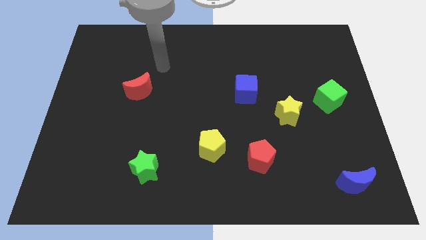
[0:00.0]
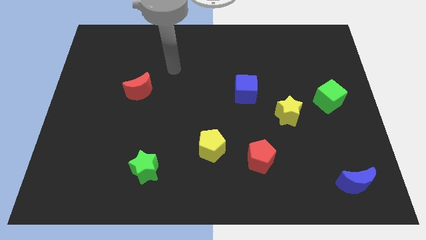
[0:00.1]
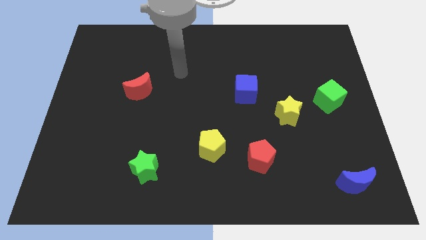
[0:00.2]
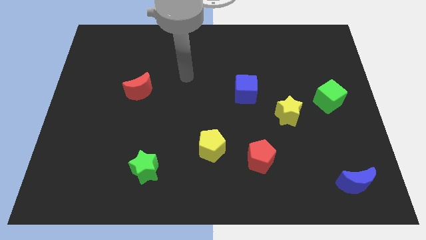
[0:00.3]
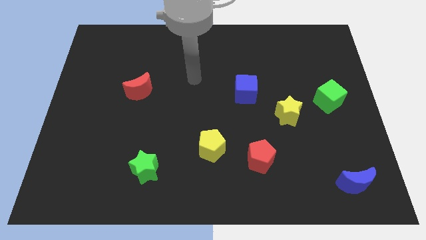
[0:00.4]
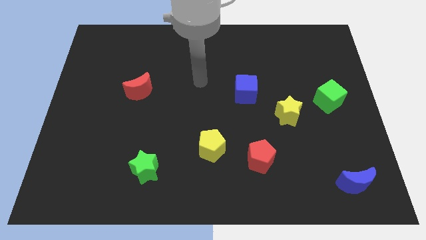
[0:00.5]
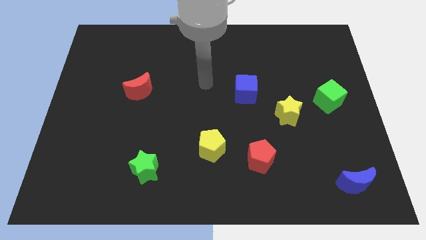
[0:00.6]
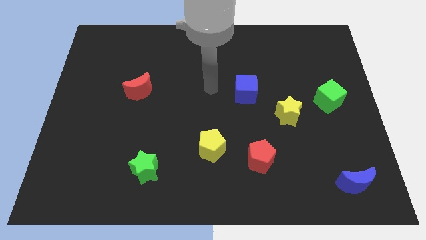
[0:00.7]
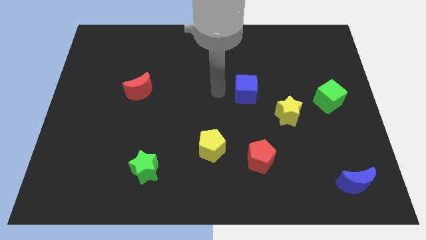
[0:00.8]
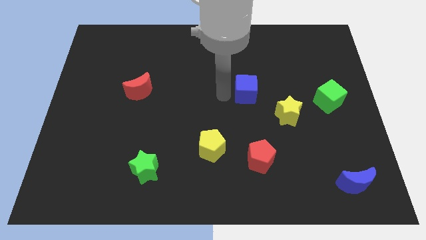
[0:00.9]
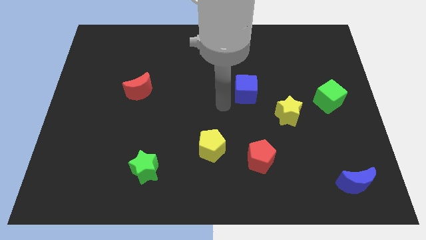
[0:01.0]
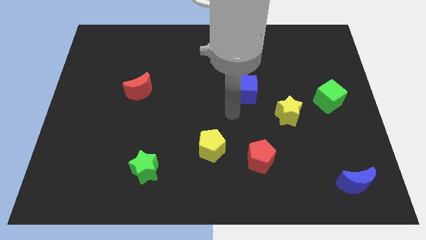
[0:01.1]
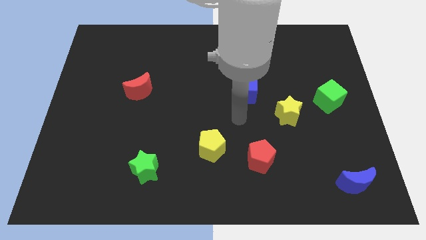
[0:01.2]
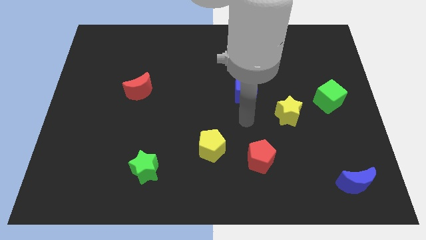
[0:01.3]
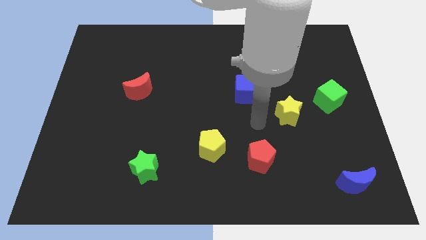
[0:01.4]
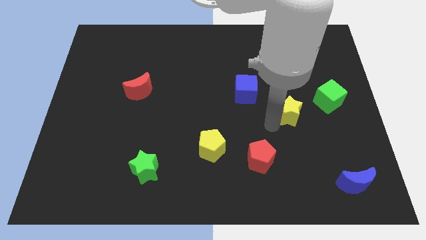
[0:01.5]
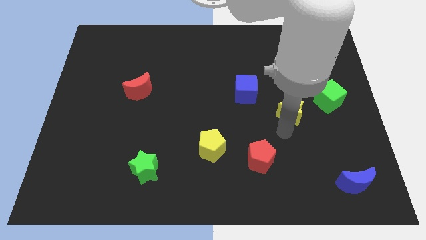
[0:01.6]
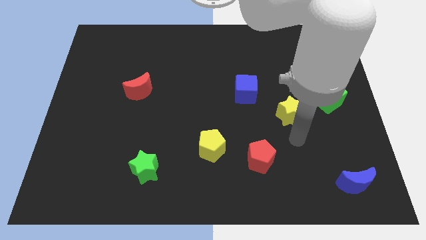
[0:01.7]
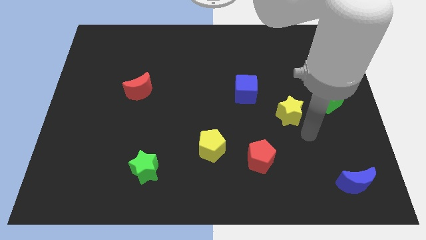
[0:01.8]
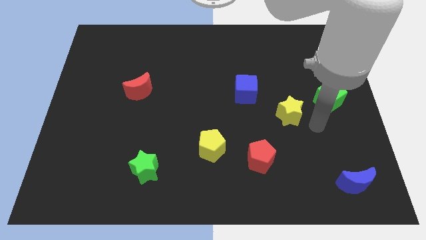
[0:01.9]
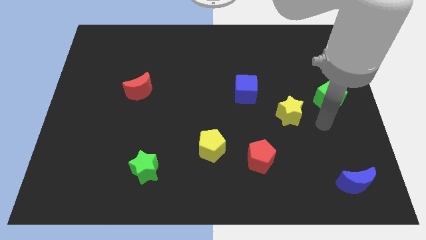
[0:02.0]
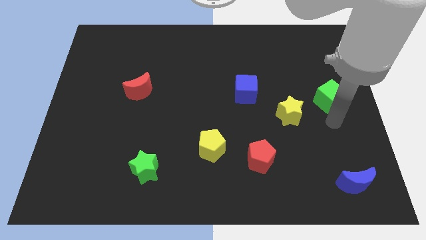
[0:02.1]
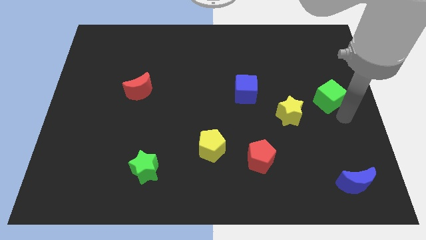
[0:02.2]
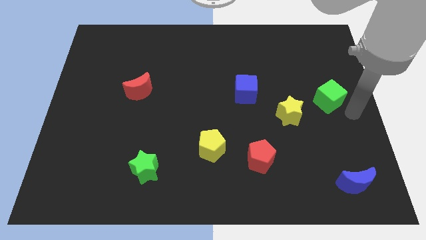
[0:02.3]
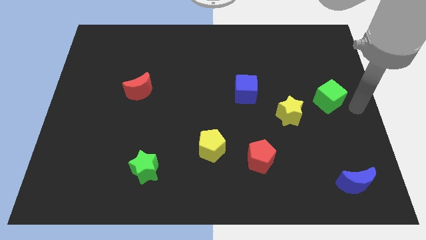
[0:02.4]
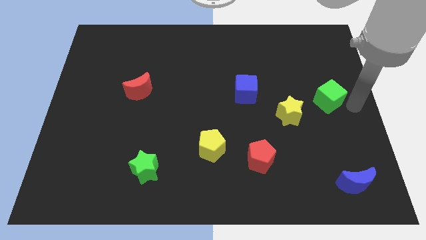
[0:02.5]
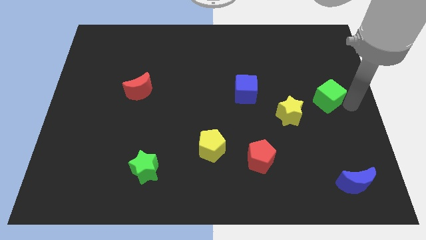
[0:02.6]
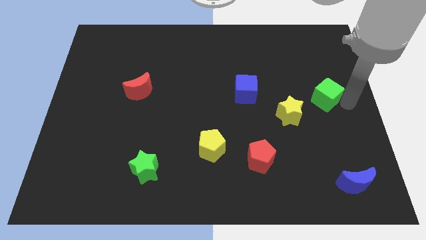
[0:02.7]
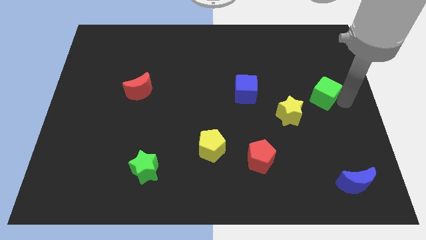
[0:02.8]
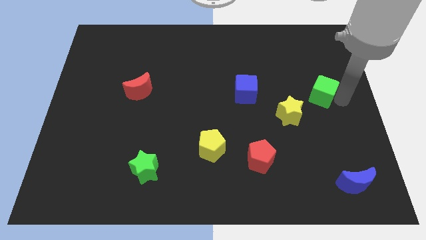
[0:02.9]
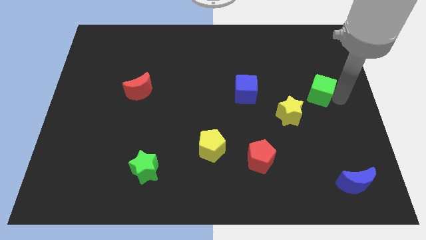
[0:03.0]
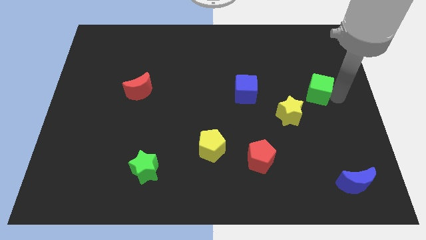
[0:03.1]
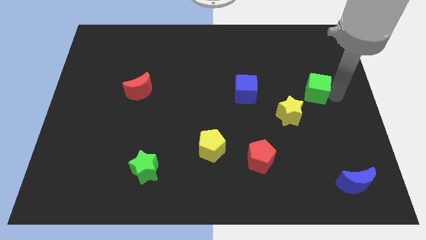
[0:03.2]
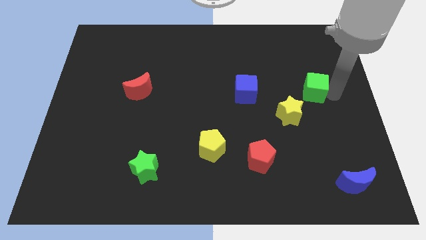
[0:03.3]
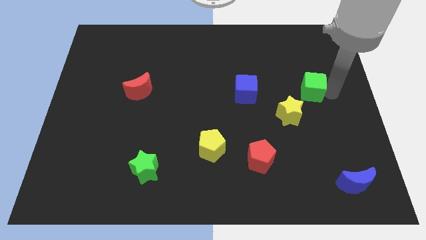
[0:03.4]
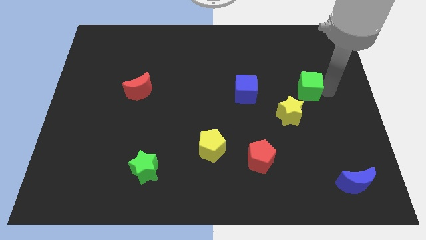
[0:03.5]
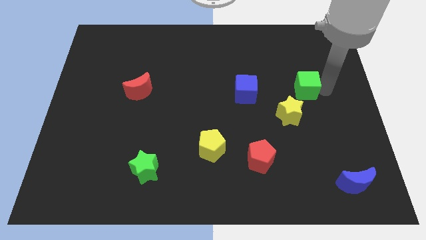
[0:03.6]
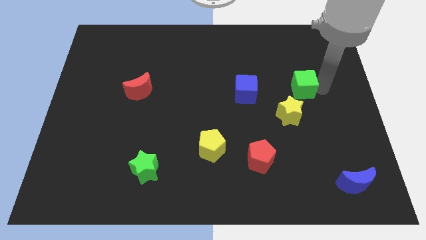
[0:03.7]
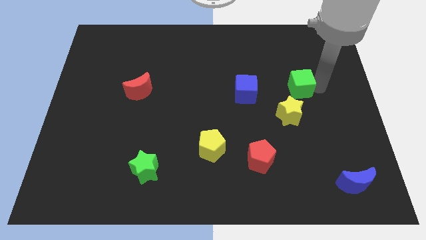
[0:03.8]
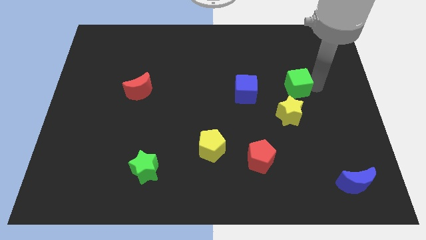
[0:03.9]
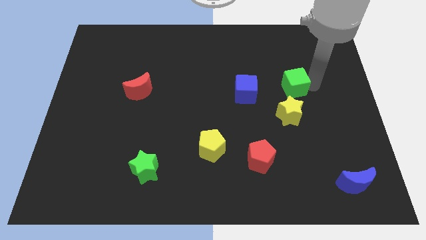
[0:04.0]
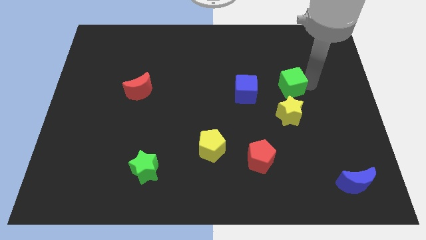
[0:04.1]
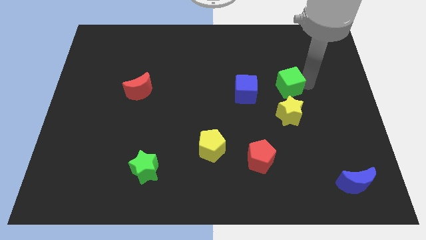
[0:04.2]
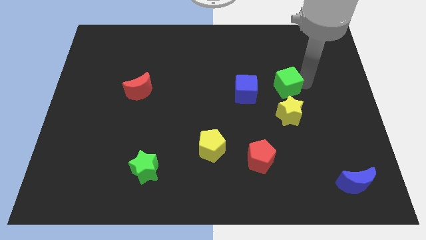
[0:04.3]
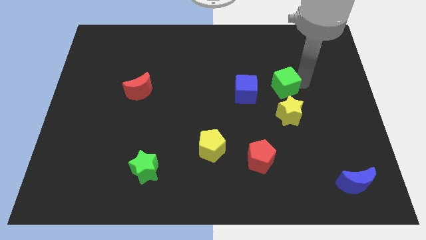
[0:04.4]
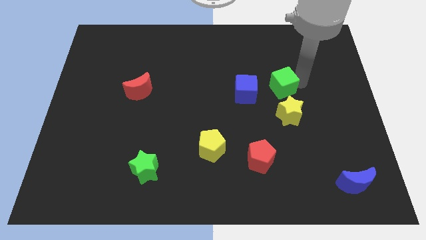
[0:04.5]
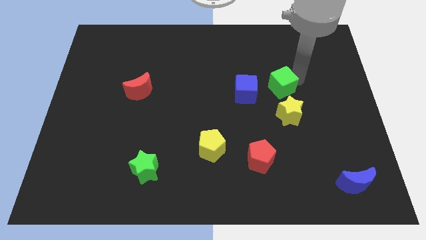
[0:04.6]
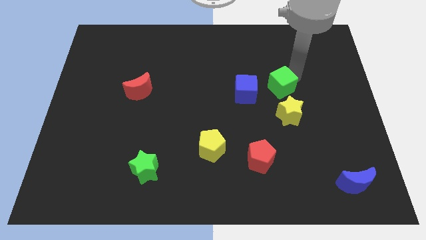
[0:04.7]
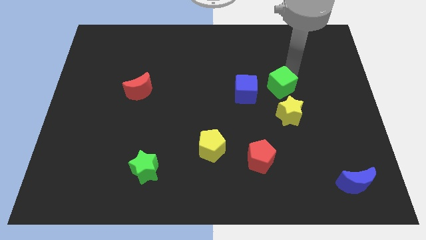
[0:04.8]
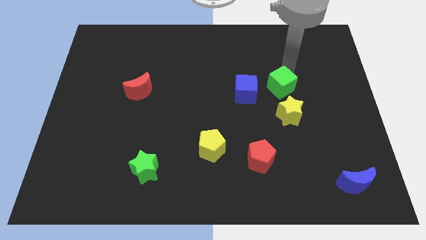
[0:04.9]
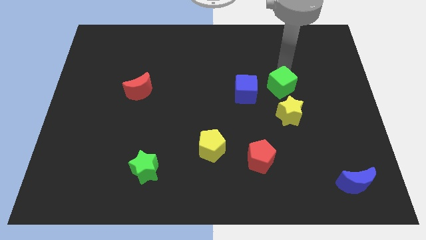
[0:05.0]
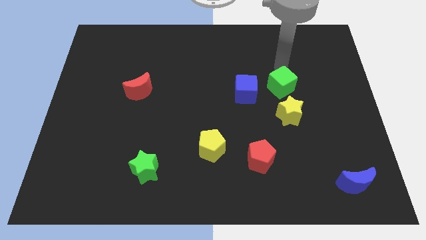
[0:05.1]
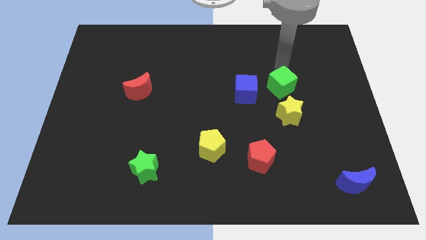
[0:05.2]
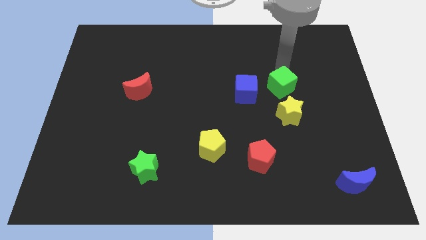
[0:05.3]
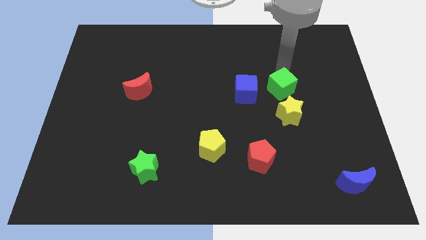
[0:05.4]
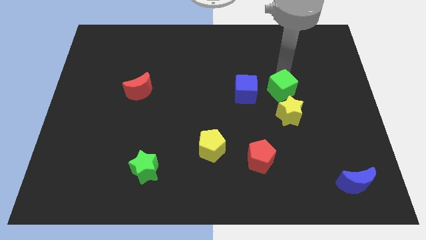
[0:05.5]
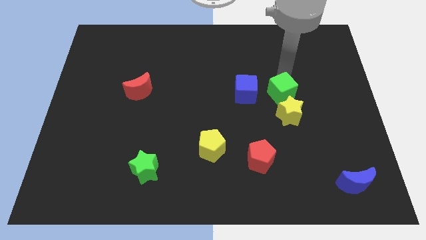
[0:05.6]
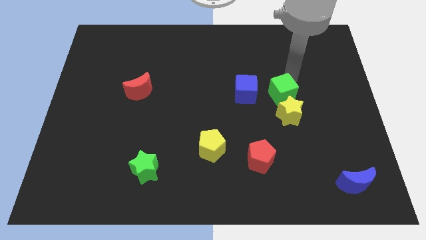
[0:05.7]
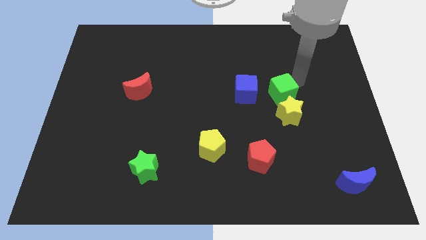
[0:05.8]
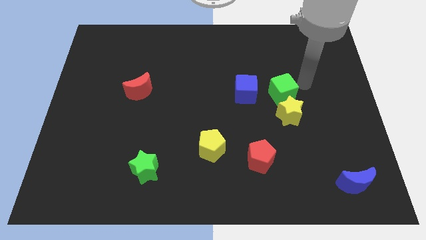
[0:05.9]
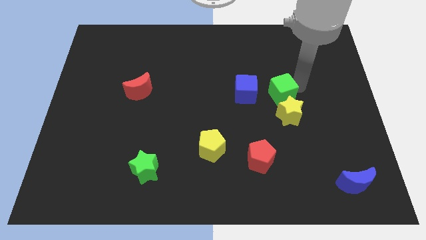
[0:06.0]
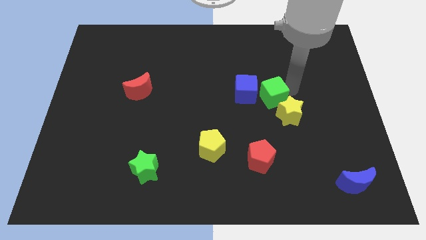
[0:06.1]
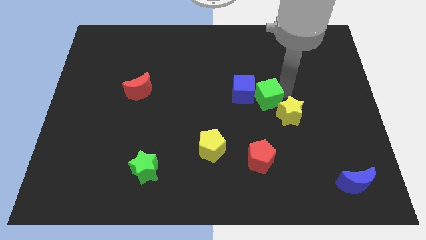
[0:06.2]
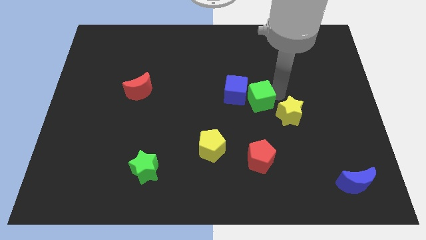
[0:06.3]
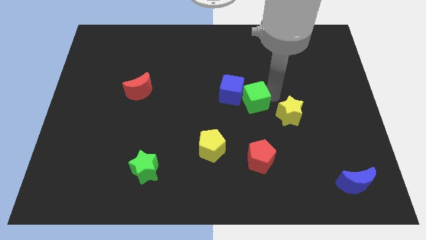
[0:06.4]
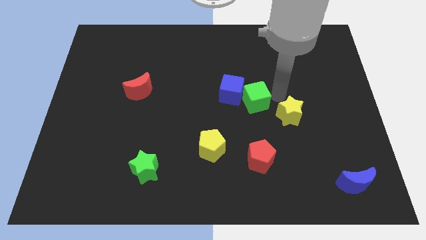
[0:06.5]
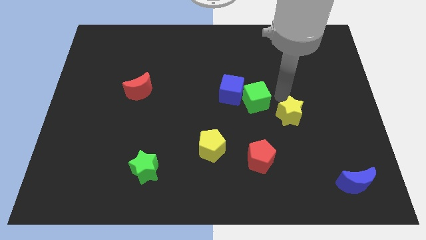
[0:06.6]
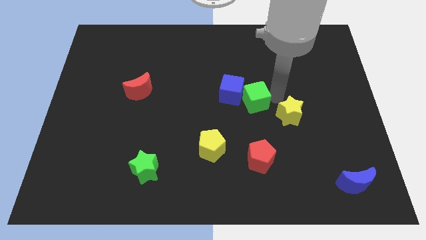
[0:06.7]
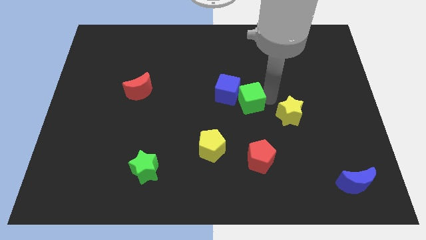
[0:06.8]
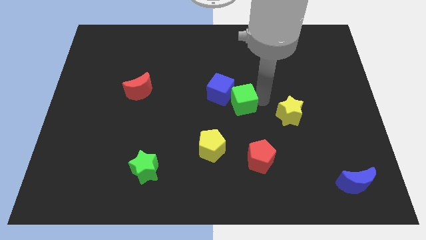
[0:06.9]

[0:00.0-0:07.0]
move the green cube left

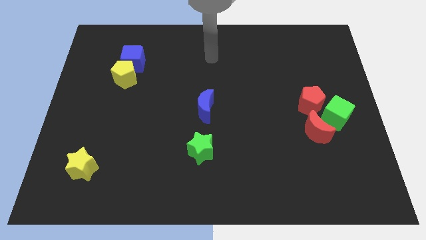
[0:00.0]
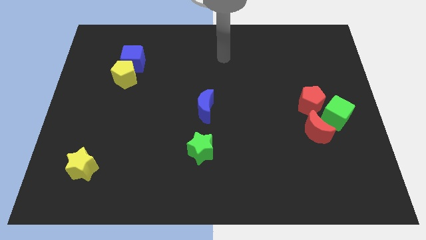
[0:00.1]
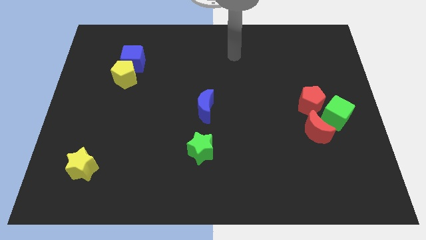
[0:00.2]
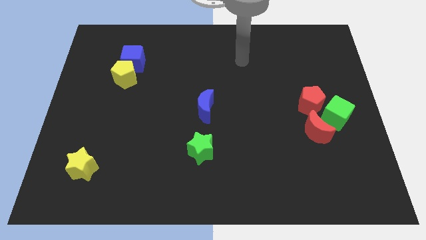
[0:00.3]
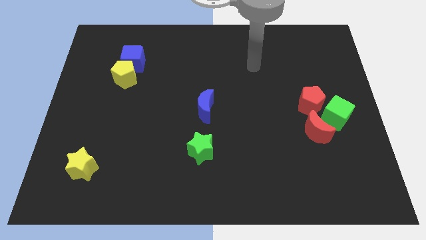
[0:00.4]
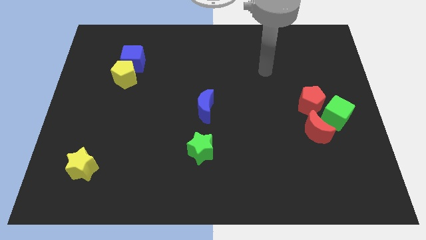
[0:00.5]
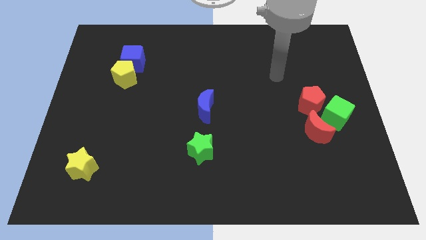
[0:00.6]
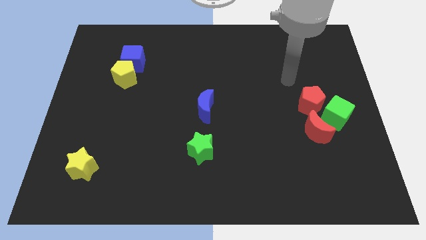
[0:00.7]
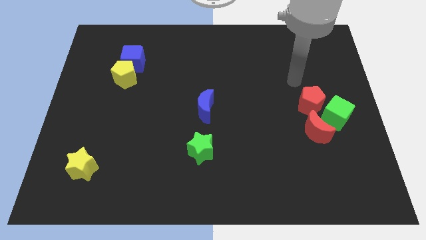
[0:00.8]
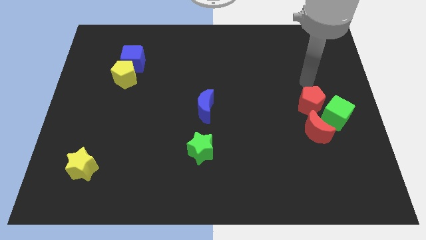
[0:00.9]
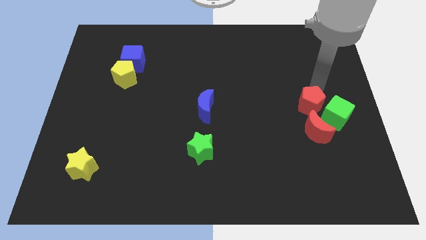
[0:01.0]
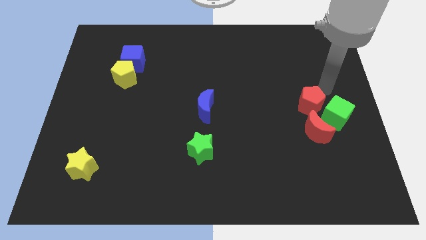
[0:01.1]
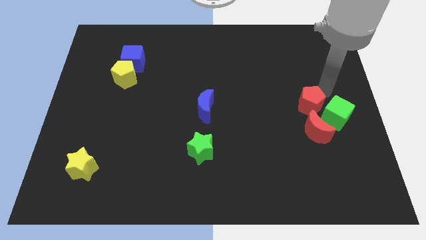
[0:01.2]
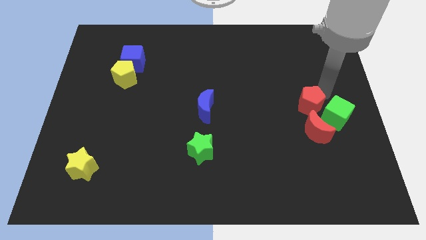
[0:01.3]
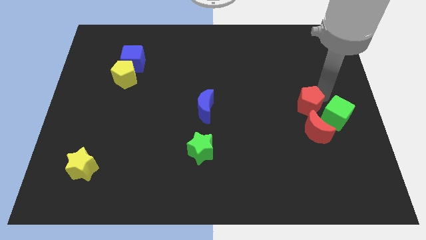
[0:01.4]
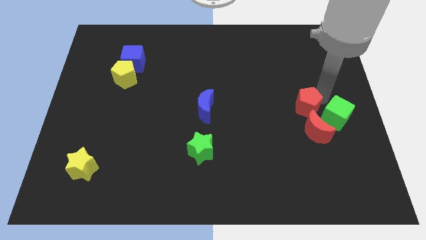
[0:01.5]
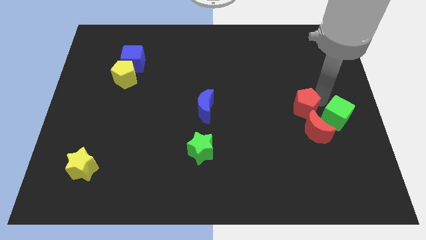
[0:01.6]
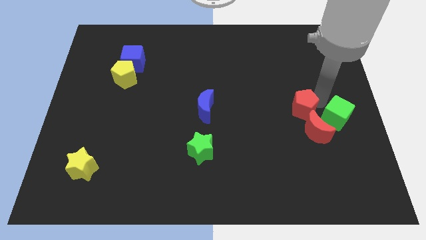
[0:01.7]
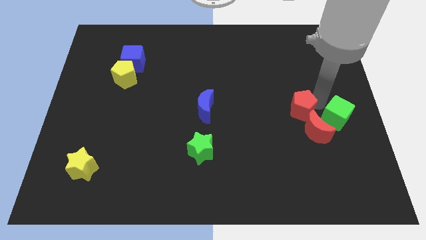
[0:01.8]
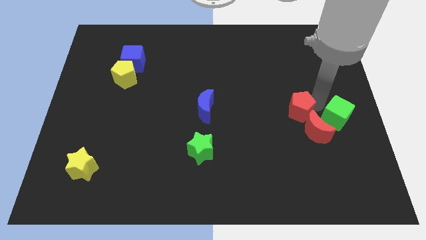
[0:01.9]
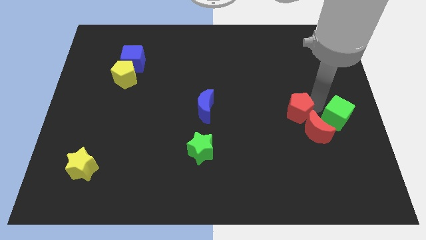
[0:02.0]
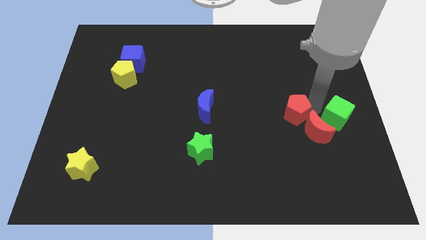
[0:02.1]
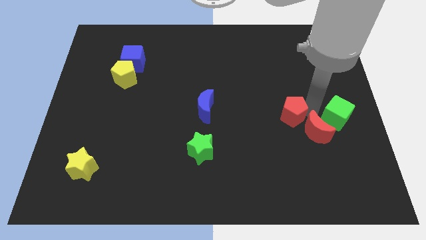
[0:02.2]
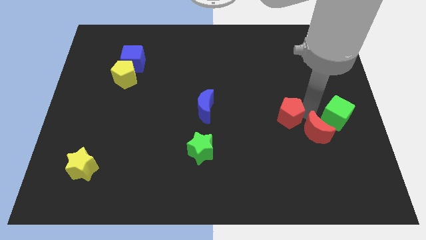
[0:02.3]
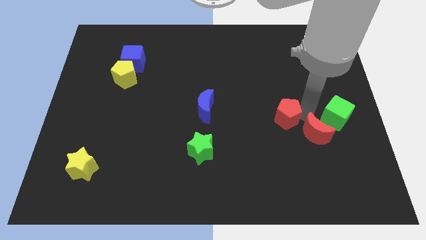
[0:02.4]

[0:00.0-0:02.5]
push the red pentagon downwards and then left somewhat
